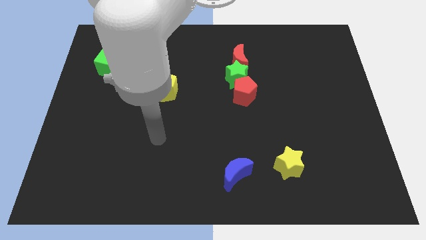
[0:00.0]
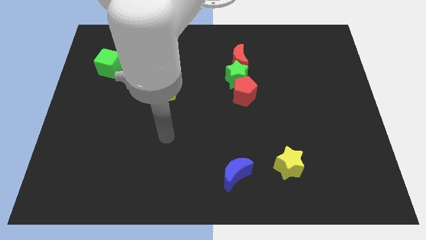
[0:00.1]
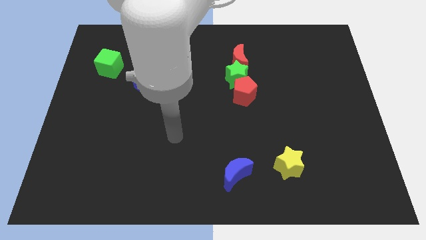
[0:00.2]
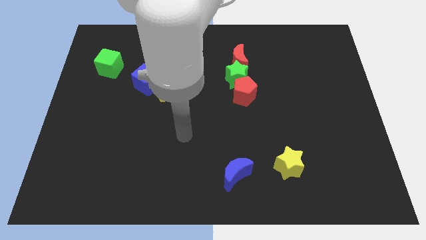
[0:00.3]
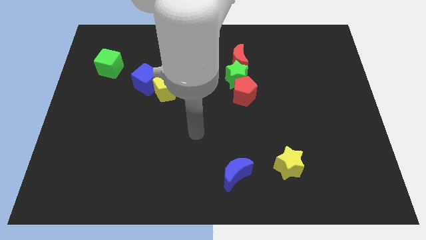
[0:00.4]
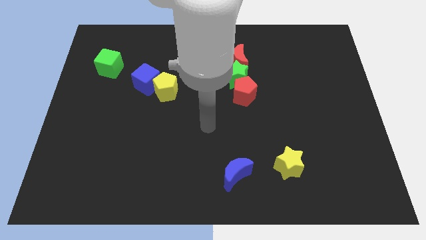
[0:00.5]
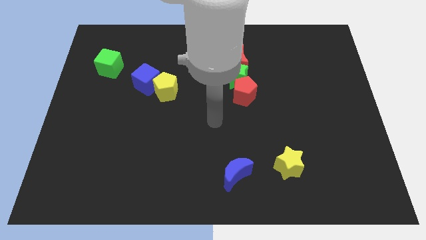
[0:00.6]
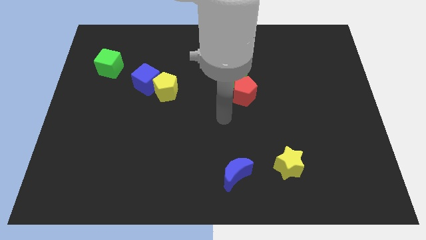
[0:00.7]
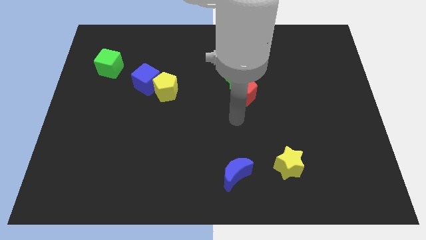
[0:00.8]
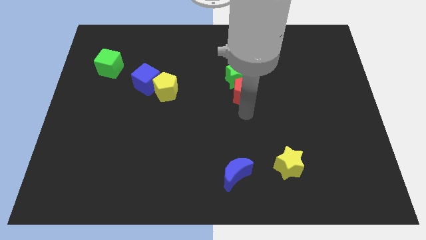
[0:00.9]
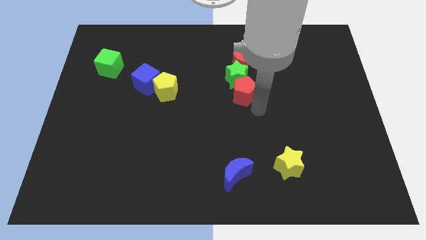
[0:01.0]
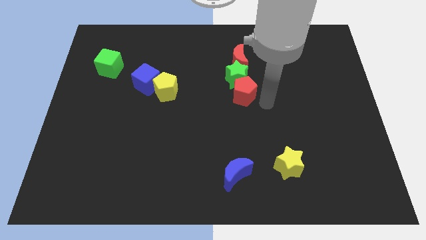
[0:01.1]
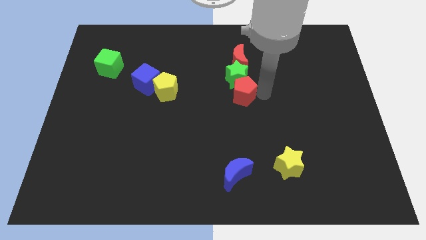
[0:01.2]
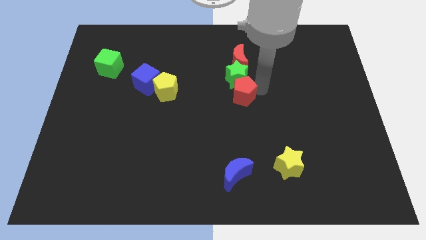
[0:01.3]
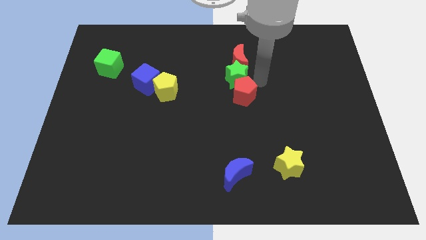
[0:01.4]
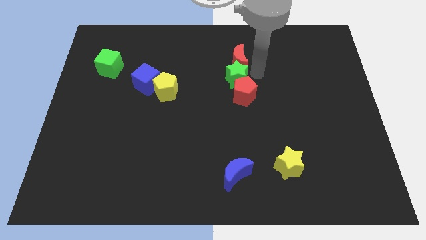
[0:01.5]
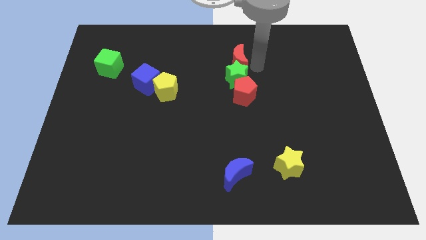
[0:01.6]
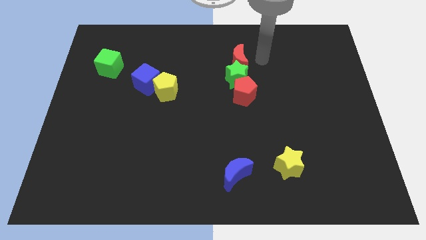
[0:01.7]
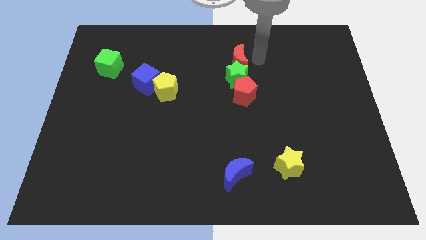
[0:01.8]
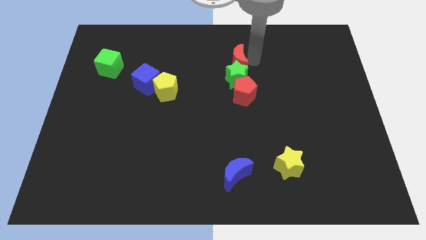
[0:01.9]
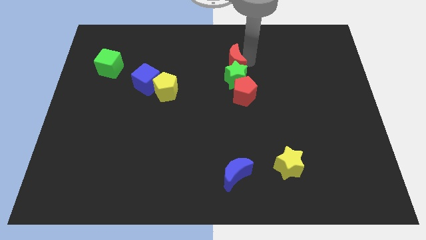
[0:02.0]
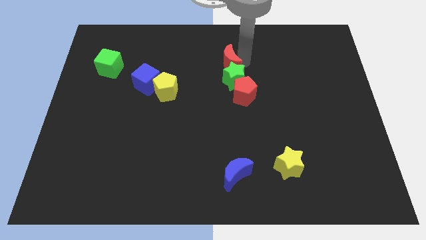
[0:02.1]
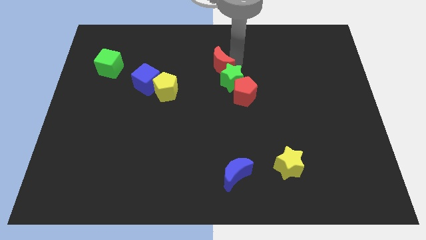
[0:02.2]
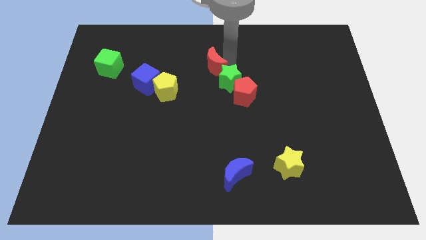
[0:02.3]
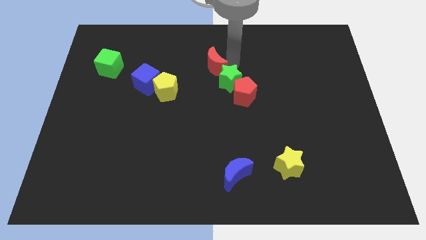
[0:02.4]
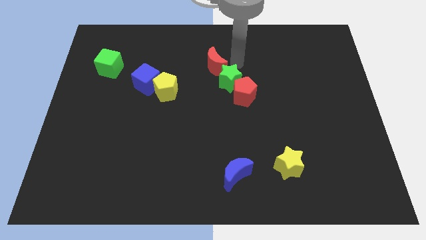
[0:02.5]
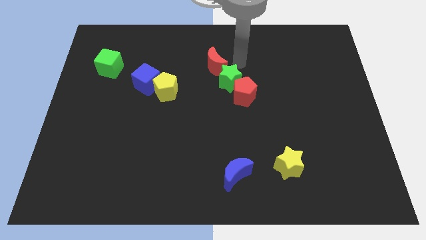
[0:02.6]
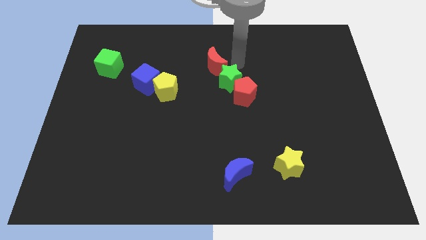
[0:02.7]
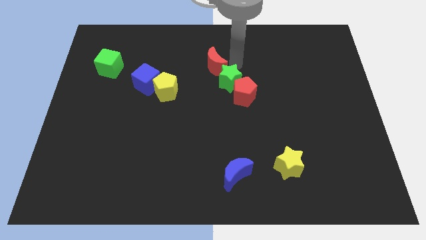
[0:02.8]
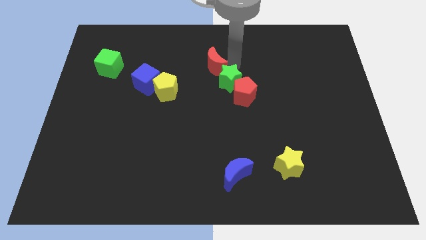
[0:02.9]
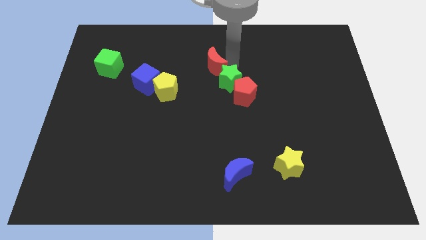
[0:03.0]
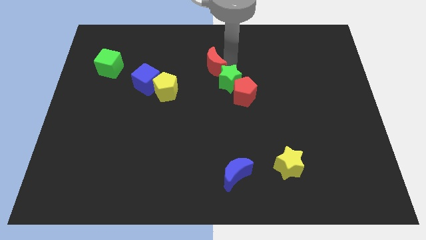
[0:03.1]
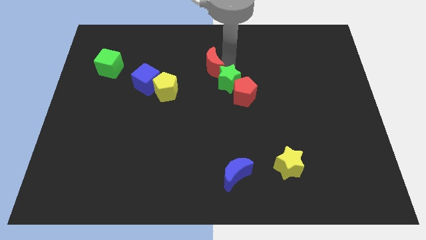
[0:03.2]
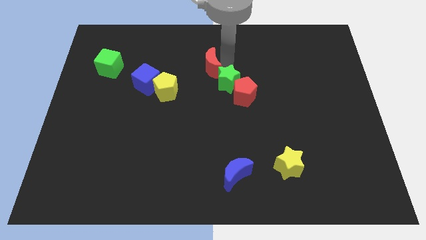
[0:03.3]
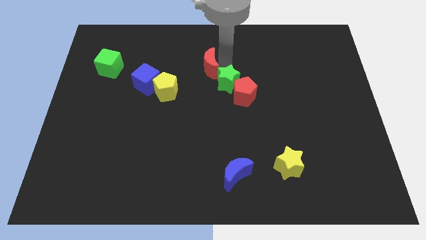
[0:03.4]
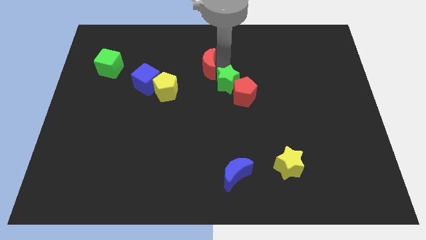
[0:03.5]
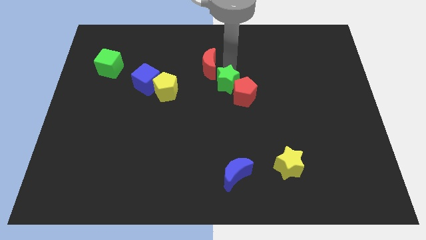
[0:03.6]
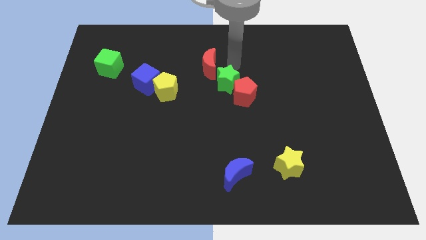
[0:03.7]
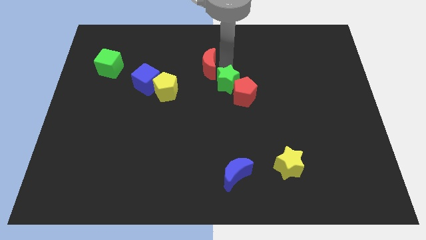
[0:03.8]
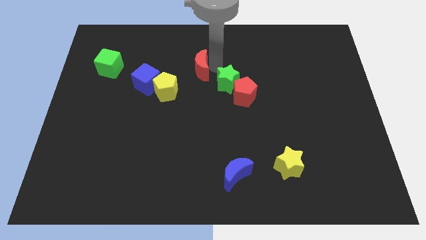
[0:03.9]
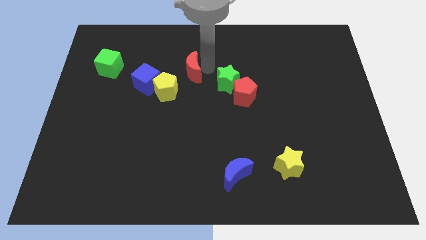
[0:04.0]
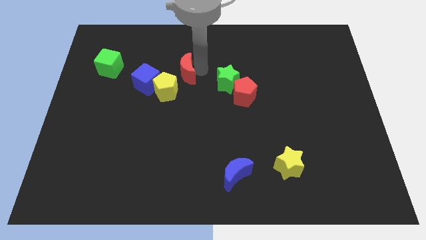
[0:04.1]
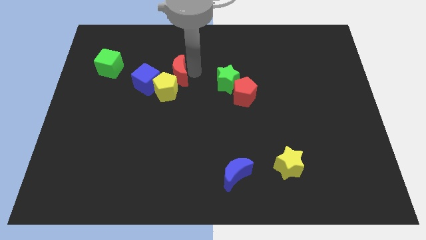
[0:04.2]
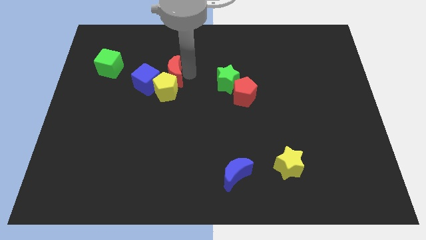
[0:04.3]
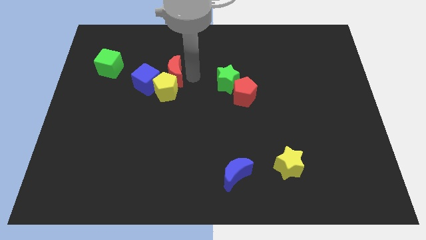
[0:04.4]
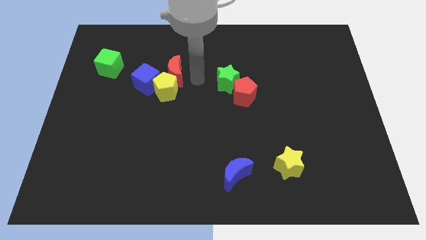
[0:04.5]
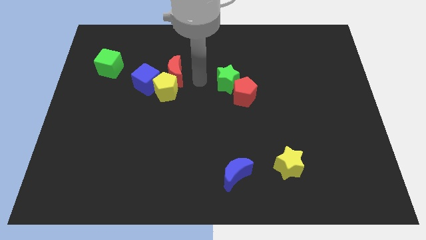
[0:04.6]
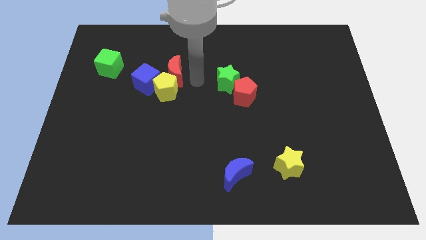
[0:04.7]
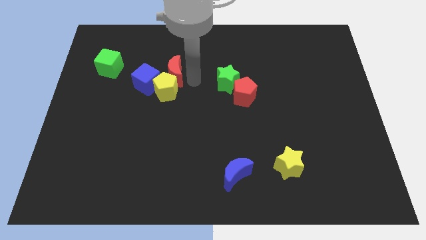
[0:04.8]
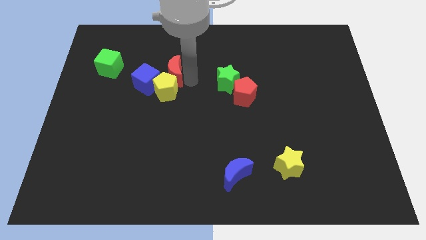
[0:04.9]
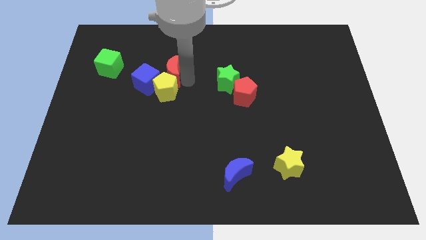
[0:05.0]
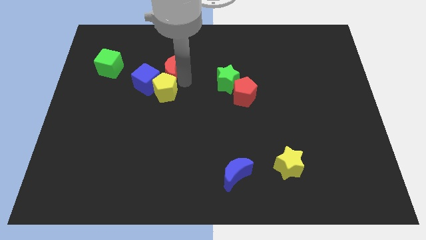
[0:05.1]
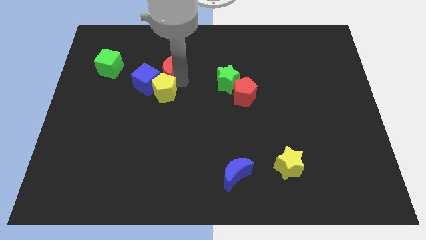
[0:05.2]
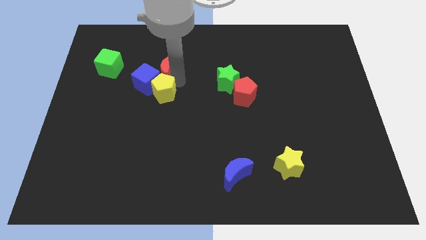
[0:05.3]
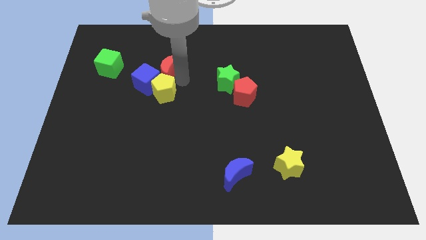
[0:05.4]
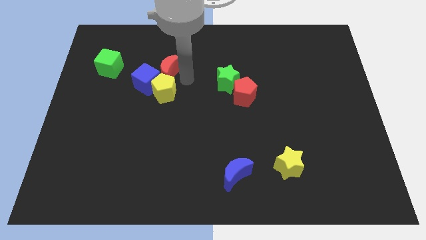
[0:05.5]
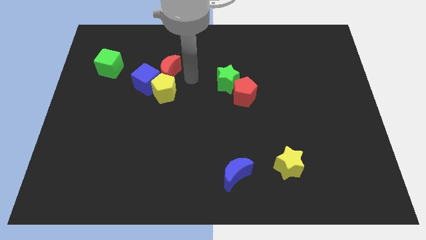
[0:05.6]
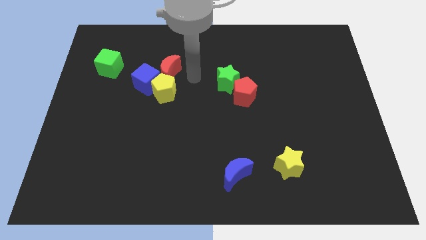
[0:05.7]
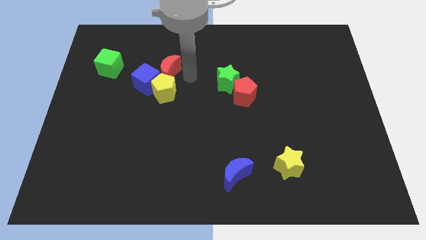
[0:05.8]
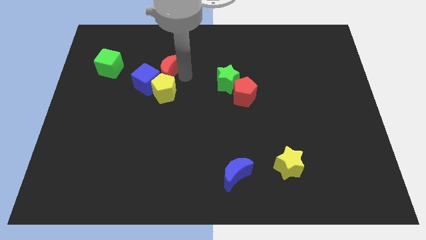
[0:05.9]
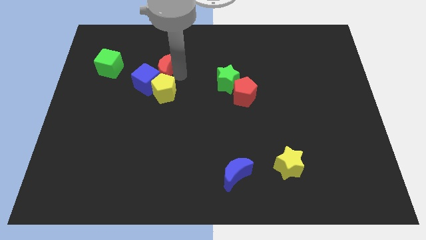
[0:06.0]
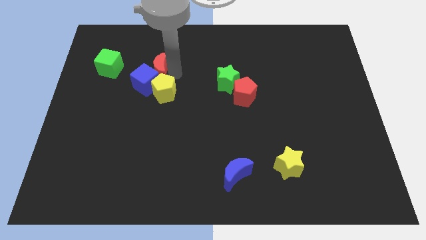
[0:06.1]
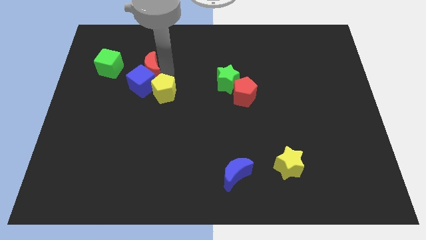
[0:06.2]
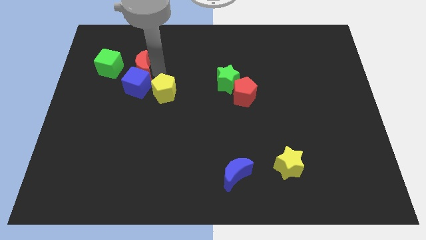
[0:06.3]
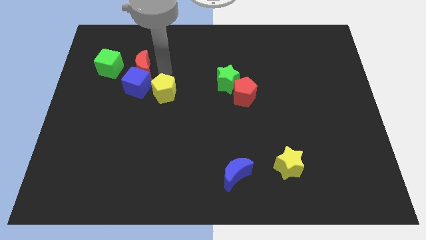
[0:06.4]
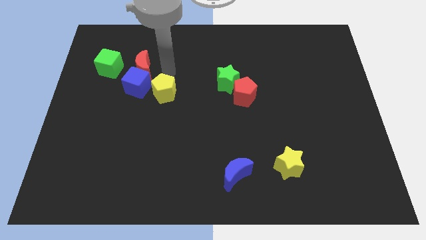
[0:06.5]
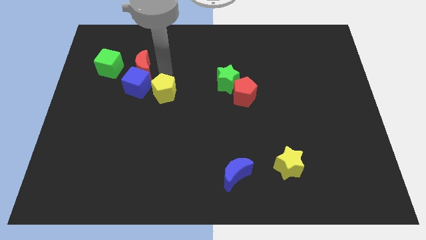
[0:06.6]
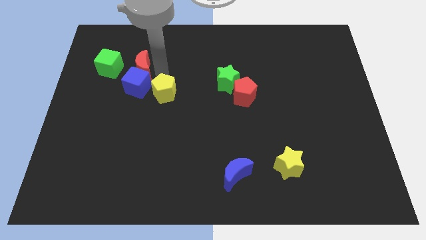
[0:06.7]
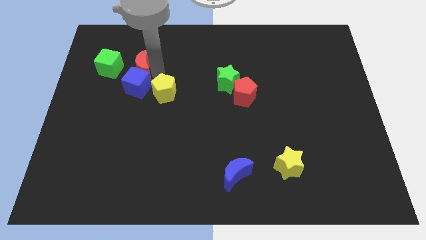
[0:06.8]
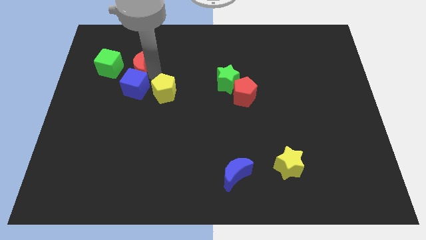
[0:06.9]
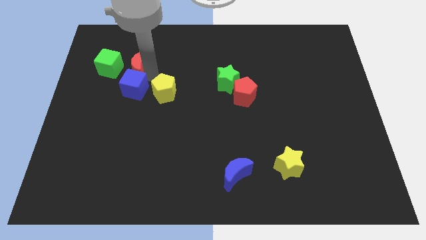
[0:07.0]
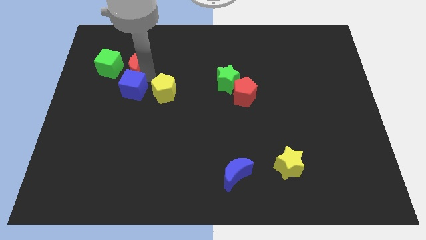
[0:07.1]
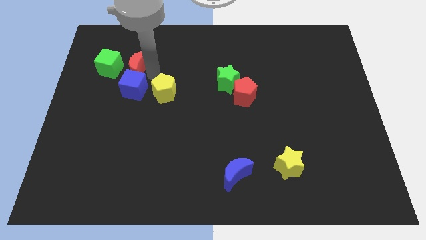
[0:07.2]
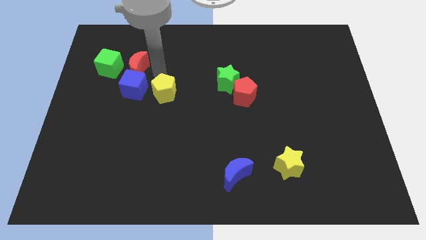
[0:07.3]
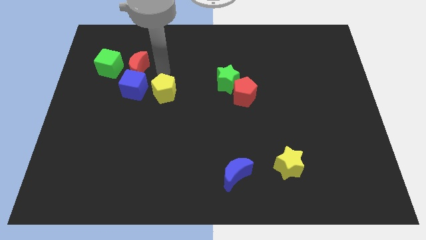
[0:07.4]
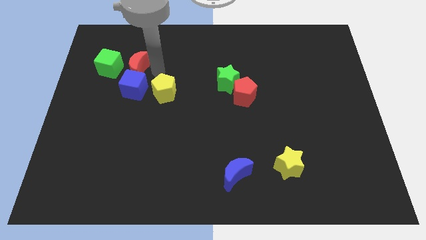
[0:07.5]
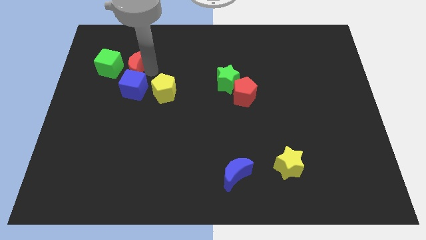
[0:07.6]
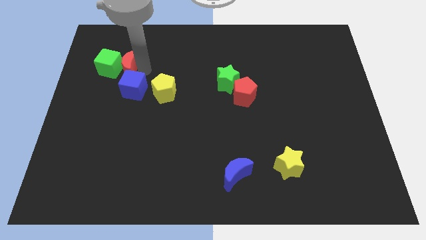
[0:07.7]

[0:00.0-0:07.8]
move the red moon next to the green cube
